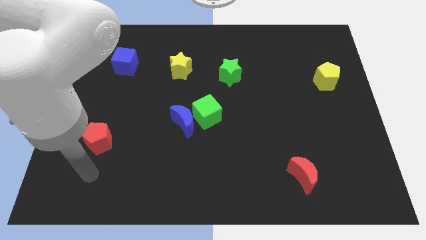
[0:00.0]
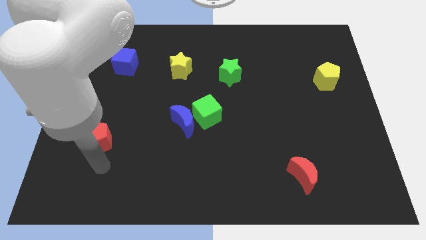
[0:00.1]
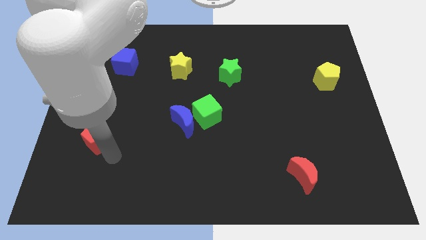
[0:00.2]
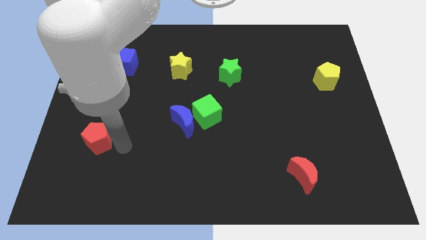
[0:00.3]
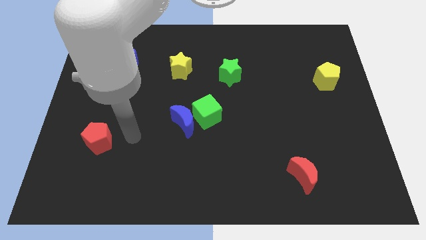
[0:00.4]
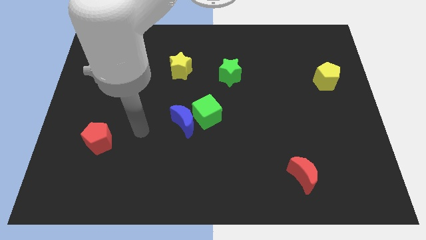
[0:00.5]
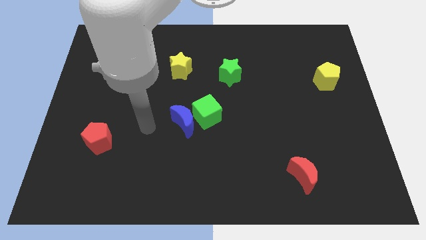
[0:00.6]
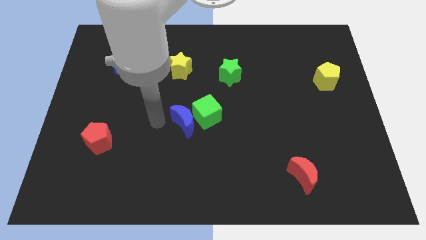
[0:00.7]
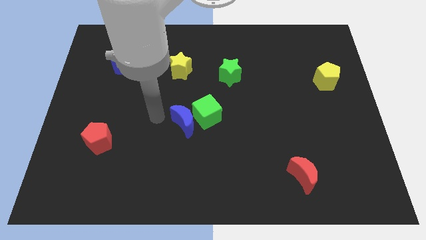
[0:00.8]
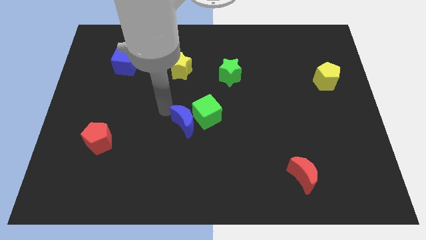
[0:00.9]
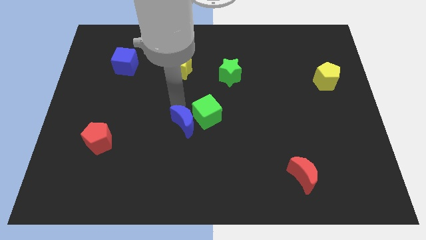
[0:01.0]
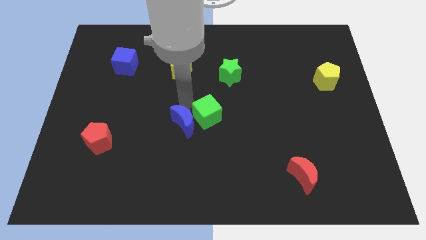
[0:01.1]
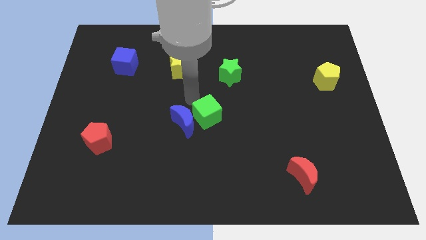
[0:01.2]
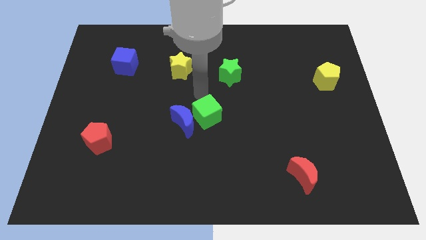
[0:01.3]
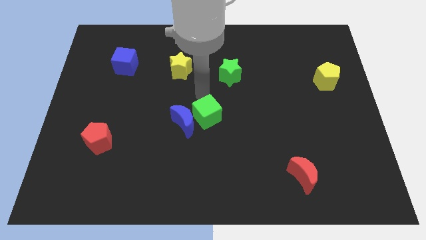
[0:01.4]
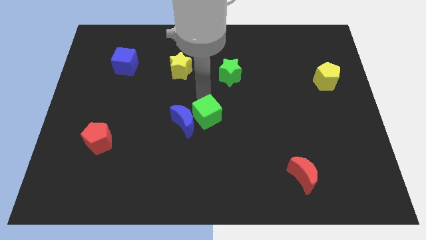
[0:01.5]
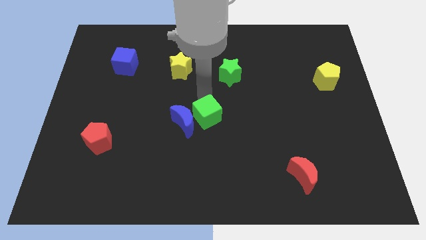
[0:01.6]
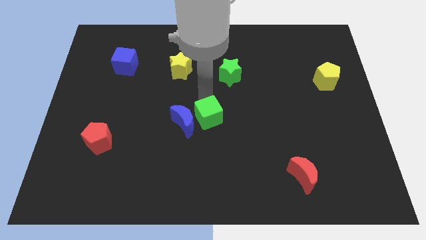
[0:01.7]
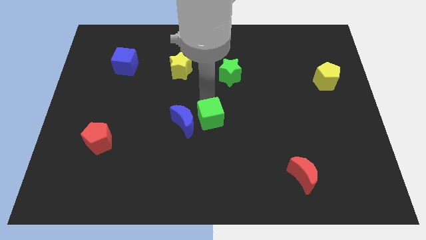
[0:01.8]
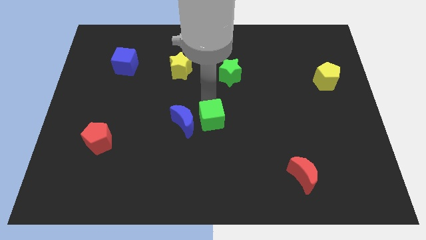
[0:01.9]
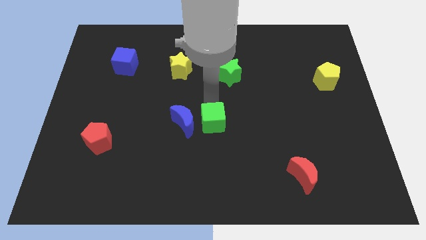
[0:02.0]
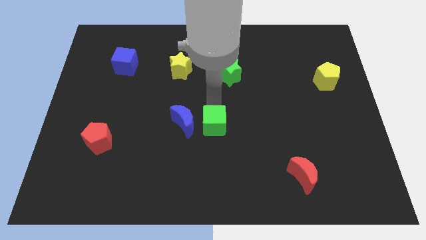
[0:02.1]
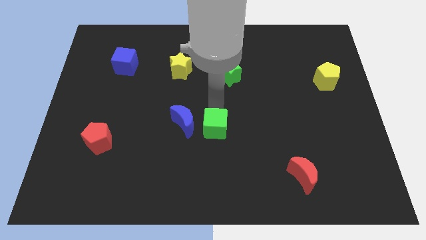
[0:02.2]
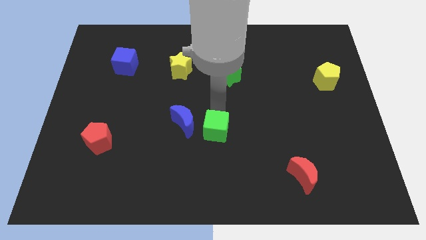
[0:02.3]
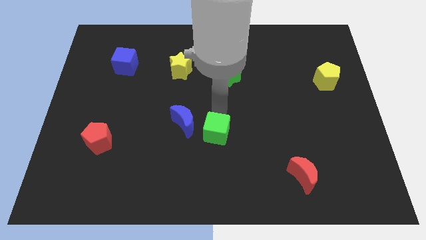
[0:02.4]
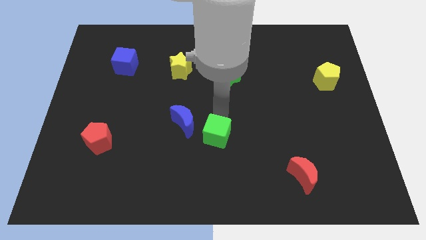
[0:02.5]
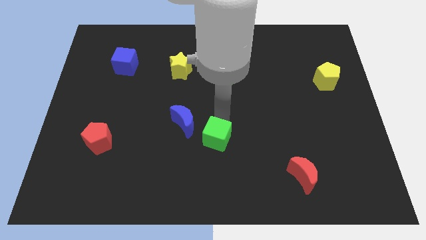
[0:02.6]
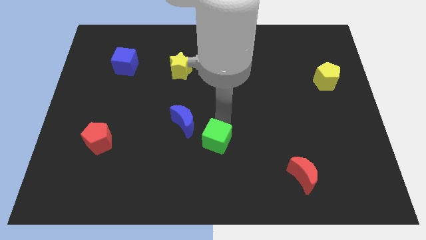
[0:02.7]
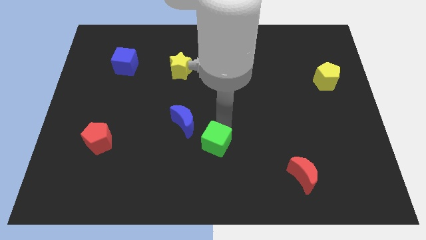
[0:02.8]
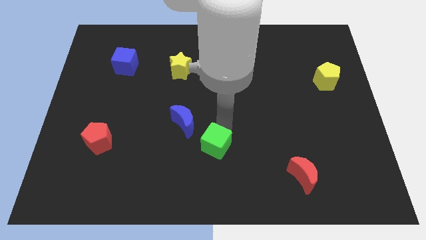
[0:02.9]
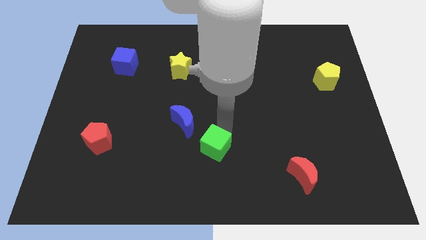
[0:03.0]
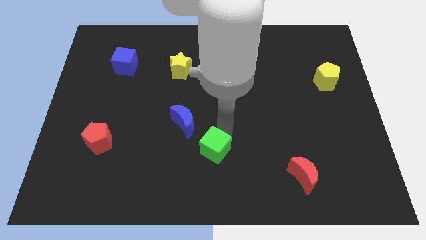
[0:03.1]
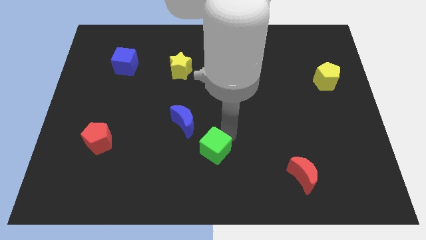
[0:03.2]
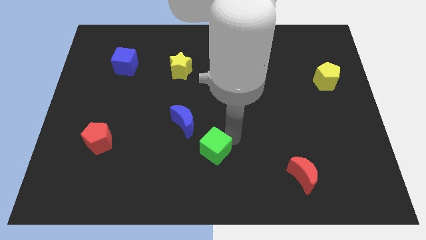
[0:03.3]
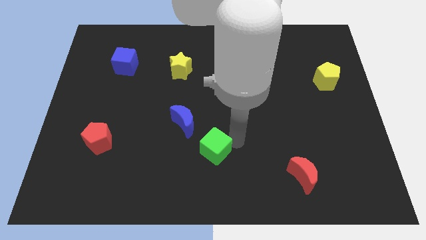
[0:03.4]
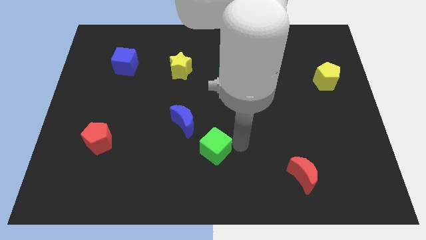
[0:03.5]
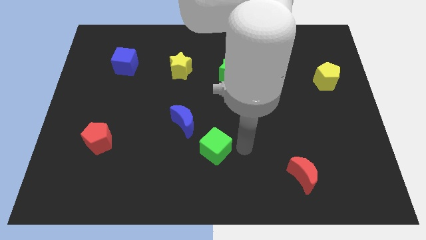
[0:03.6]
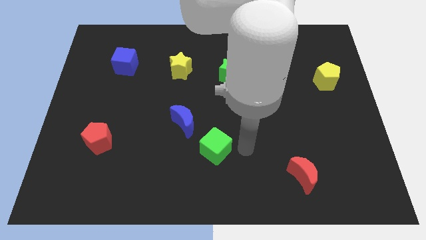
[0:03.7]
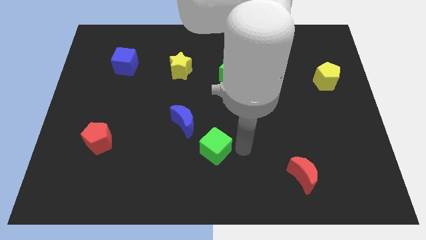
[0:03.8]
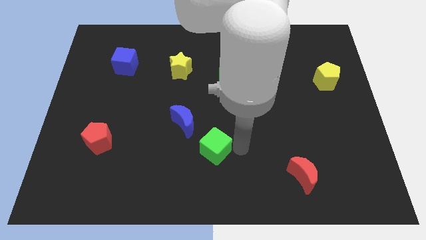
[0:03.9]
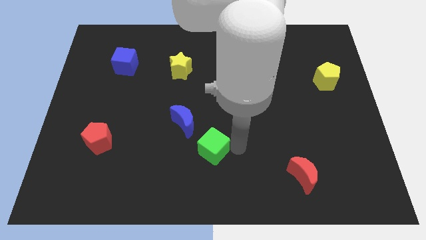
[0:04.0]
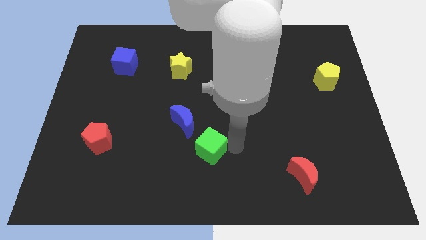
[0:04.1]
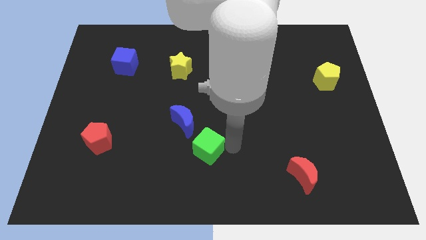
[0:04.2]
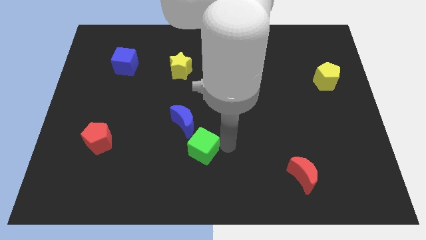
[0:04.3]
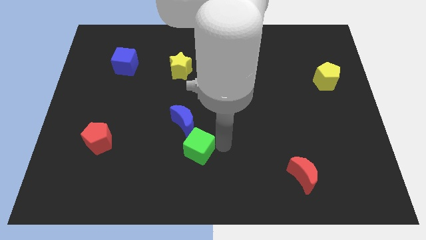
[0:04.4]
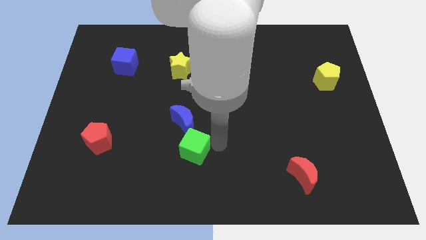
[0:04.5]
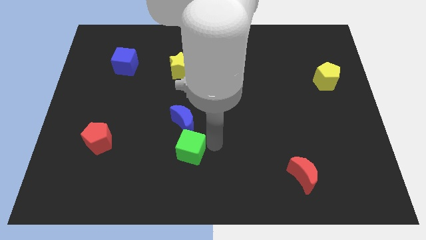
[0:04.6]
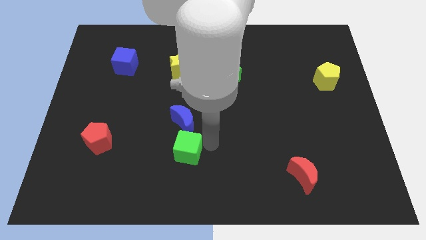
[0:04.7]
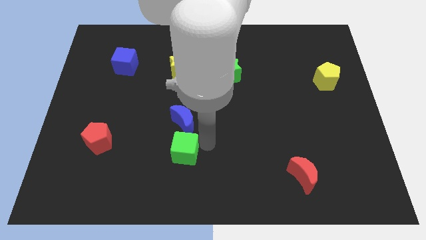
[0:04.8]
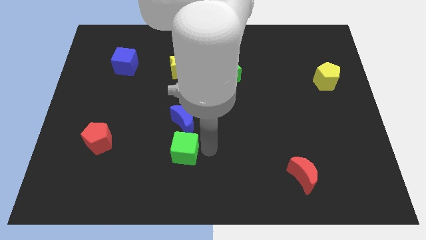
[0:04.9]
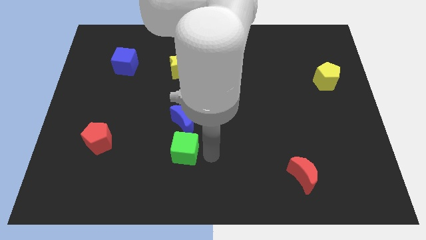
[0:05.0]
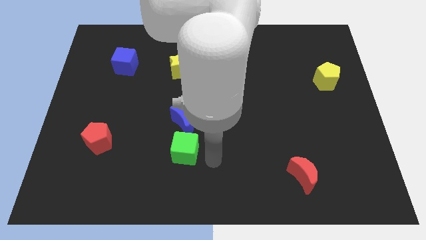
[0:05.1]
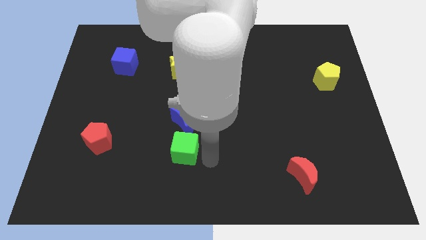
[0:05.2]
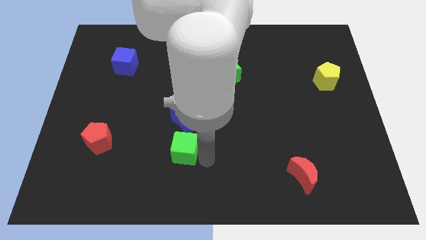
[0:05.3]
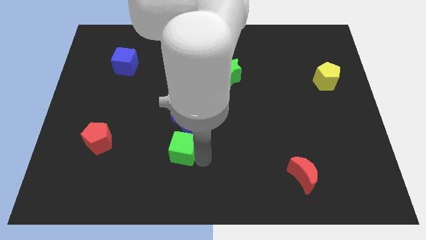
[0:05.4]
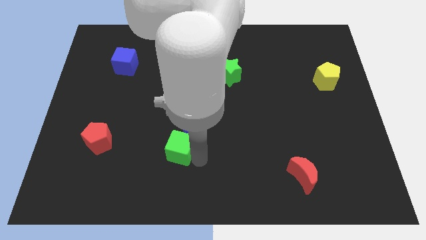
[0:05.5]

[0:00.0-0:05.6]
push the green cube to the bottom left of the blue moon

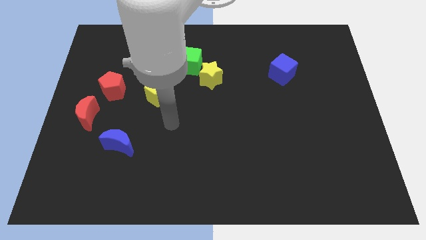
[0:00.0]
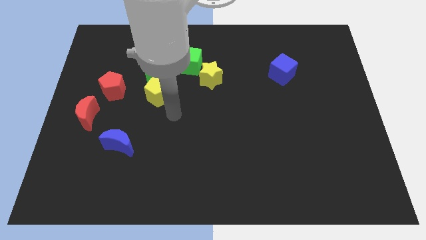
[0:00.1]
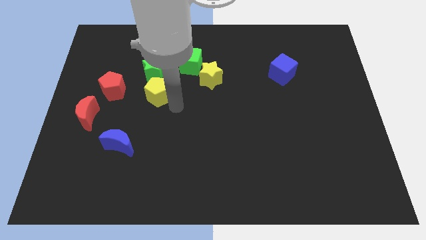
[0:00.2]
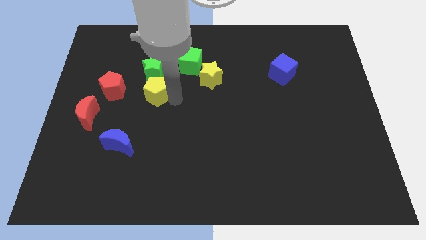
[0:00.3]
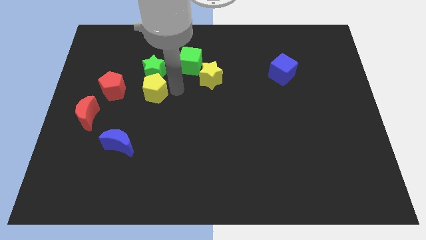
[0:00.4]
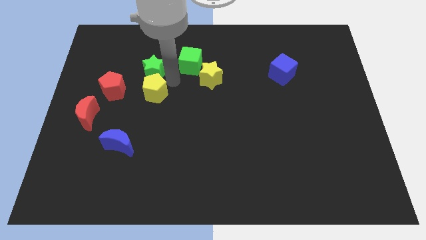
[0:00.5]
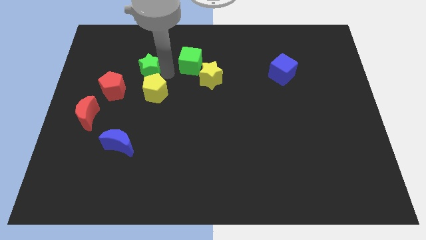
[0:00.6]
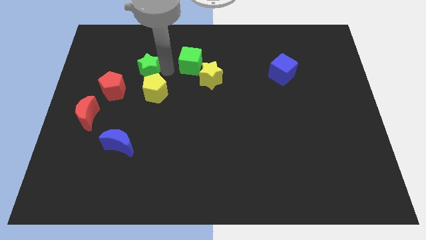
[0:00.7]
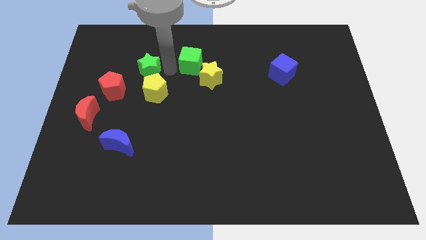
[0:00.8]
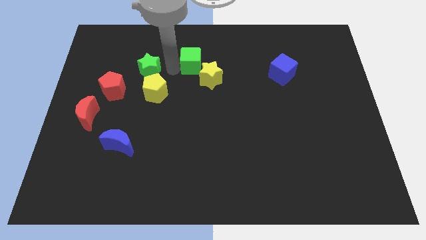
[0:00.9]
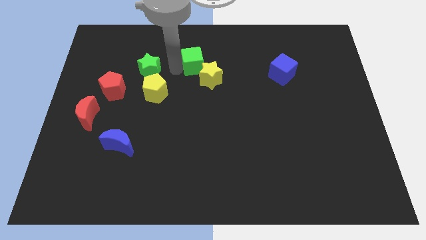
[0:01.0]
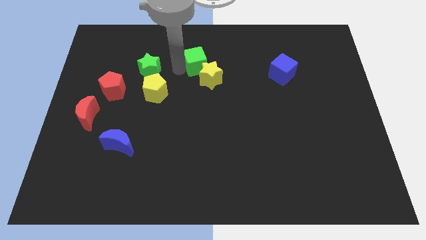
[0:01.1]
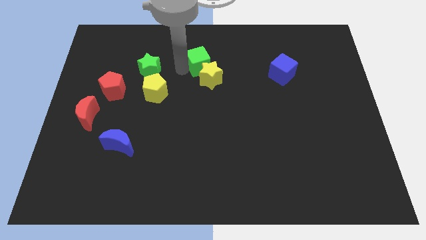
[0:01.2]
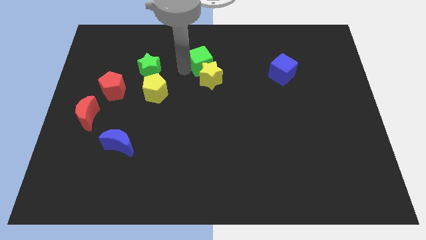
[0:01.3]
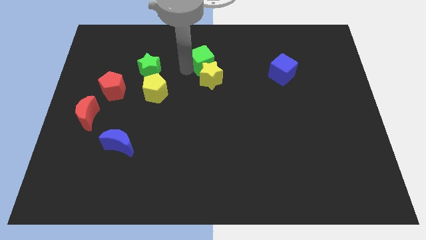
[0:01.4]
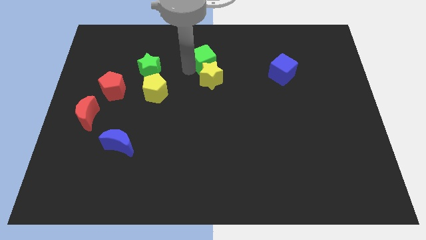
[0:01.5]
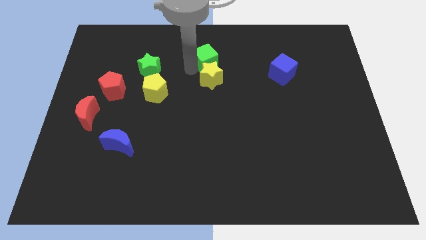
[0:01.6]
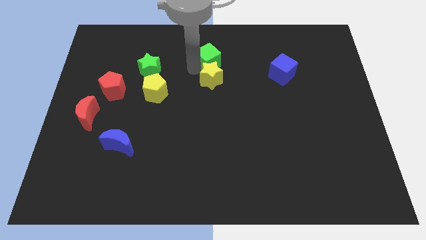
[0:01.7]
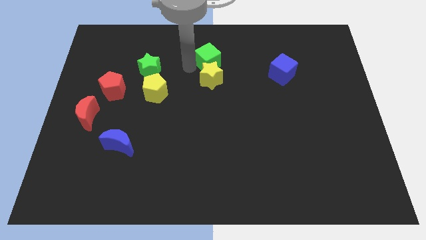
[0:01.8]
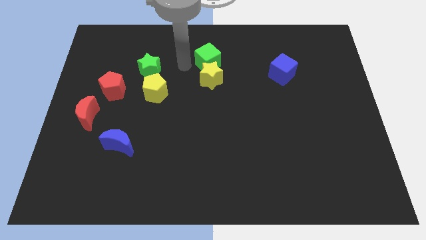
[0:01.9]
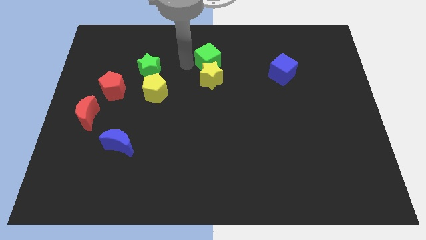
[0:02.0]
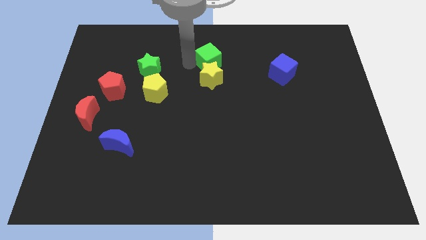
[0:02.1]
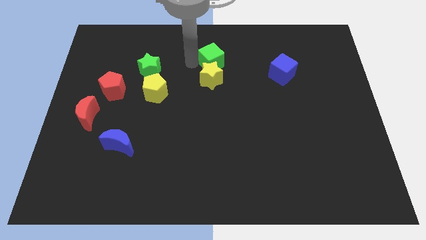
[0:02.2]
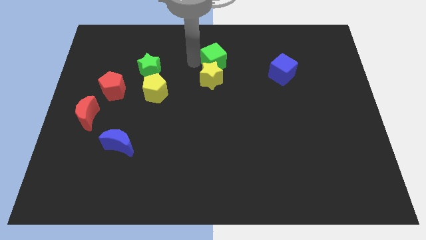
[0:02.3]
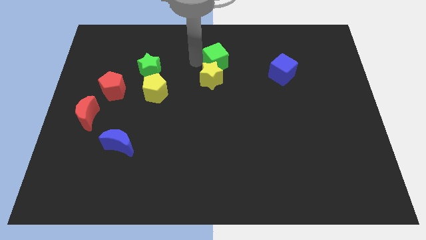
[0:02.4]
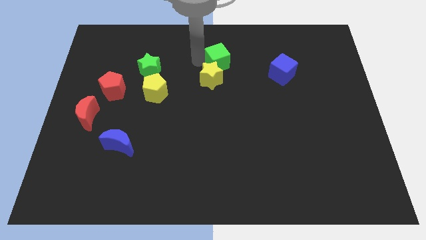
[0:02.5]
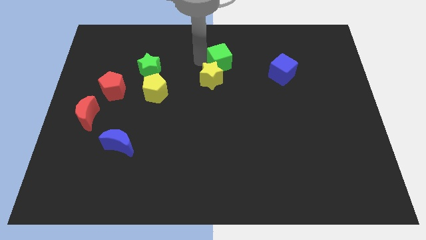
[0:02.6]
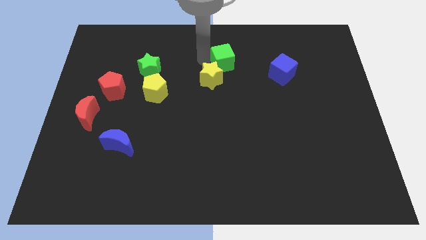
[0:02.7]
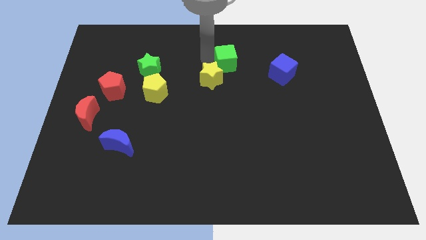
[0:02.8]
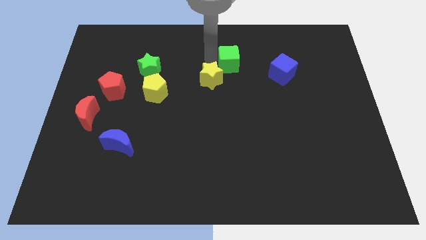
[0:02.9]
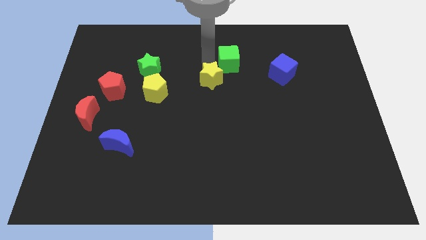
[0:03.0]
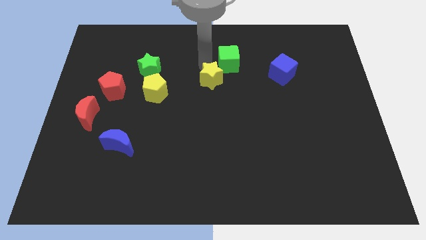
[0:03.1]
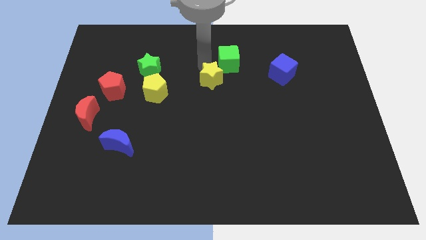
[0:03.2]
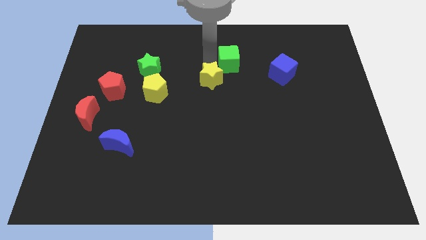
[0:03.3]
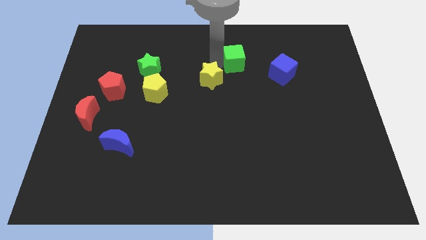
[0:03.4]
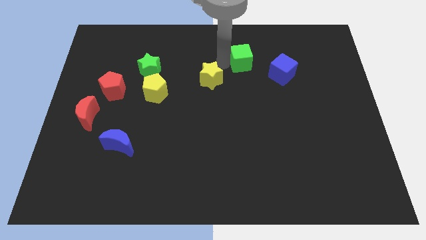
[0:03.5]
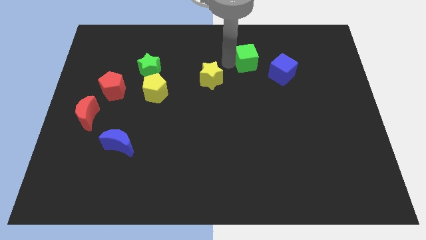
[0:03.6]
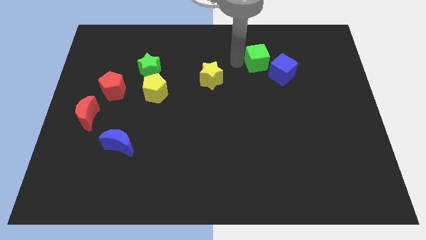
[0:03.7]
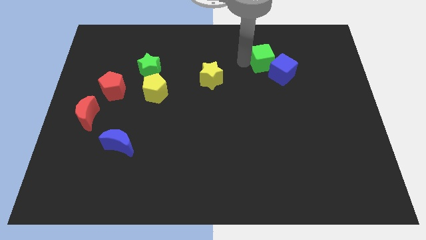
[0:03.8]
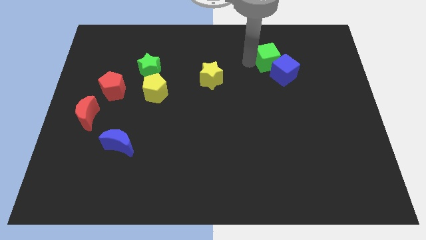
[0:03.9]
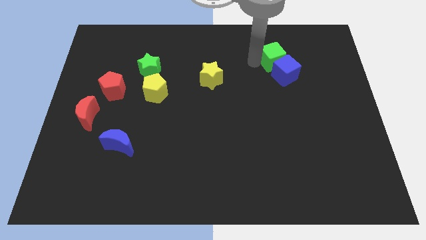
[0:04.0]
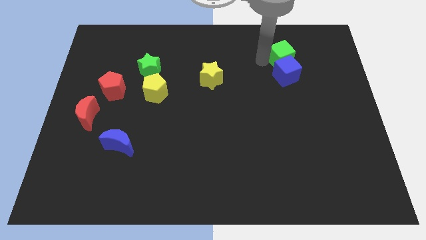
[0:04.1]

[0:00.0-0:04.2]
push the green cube to the top right side of the blue cube
